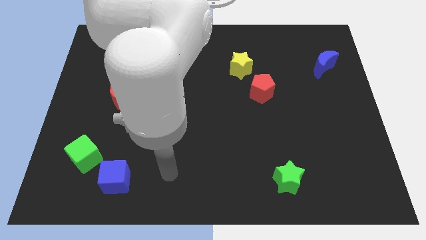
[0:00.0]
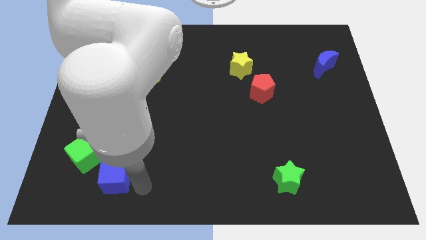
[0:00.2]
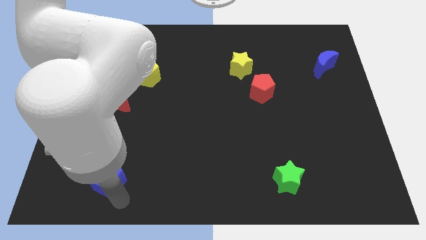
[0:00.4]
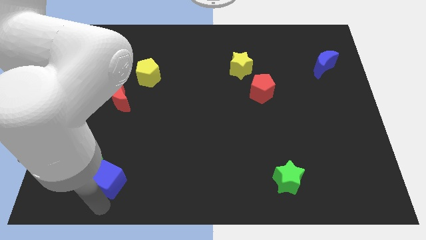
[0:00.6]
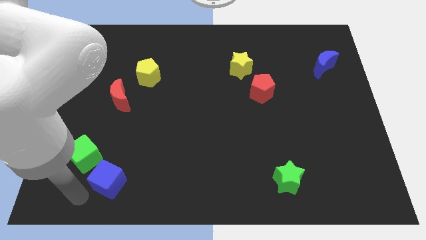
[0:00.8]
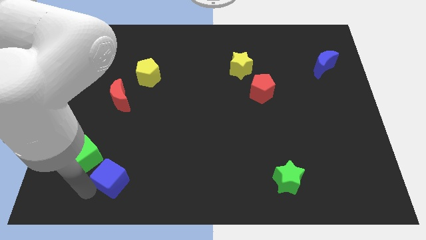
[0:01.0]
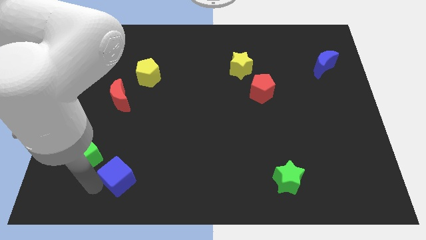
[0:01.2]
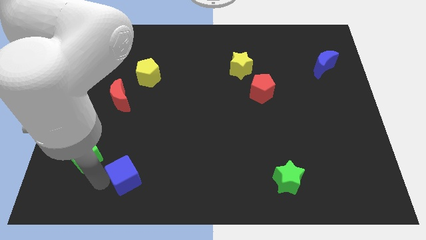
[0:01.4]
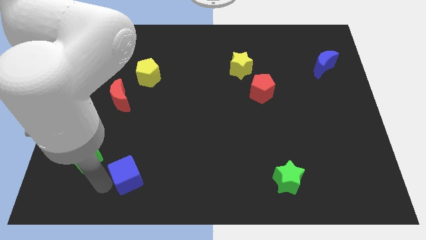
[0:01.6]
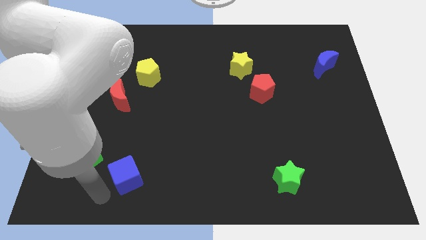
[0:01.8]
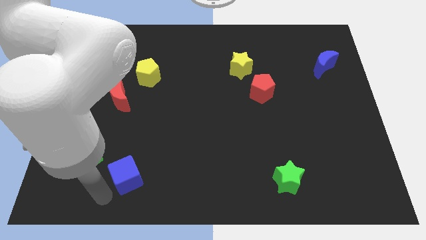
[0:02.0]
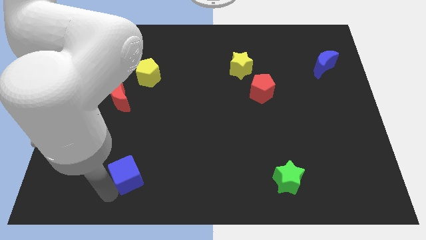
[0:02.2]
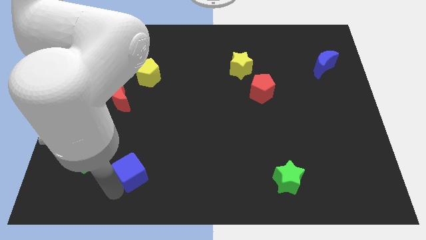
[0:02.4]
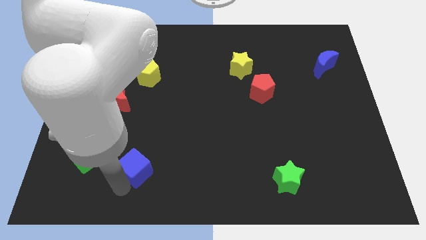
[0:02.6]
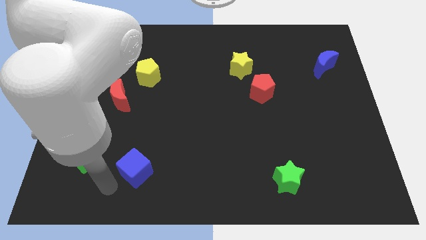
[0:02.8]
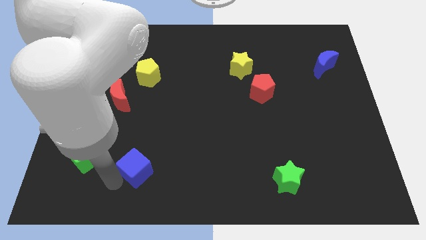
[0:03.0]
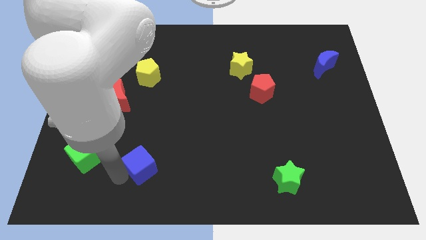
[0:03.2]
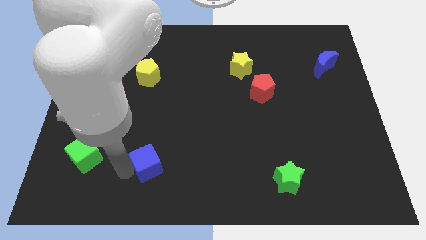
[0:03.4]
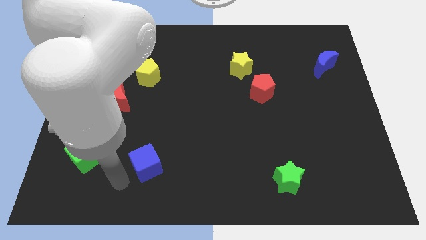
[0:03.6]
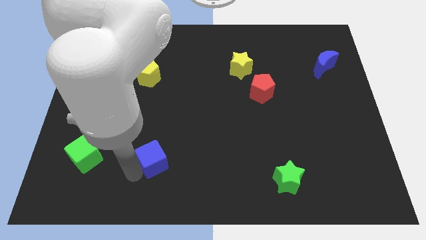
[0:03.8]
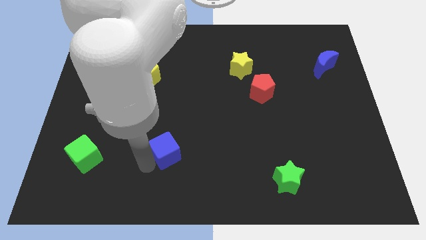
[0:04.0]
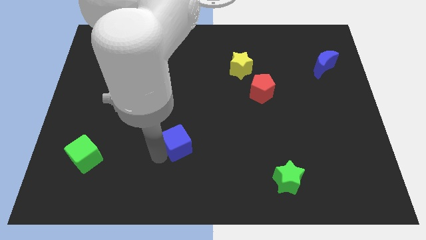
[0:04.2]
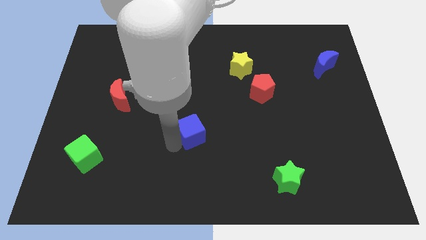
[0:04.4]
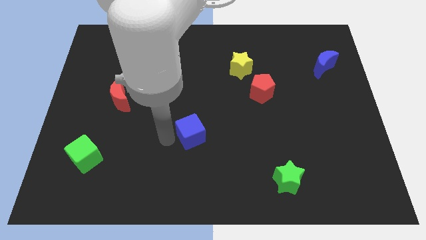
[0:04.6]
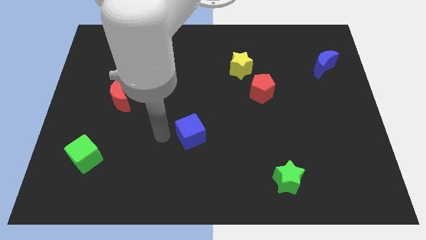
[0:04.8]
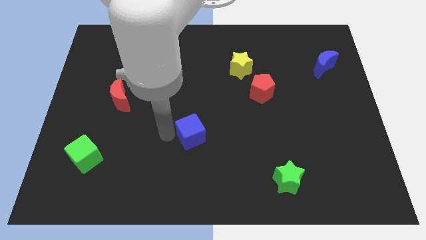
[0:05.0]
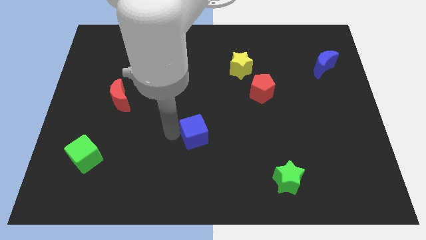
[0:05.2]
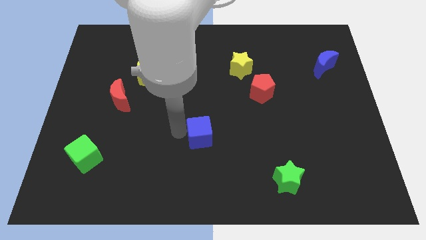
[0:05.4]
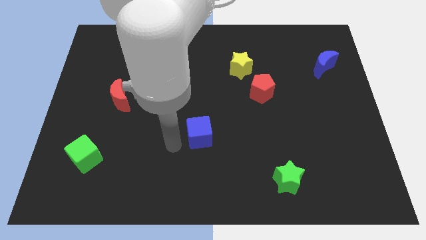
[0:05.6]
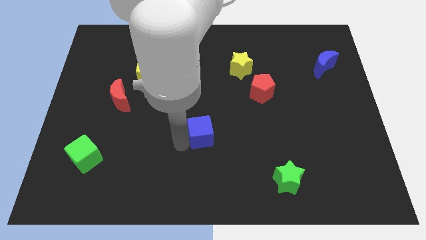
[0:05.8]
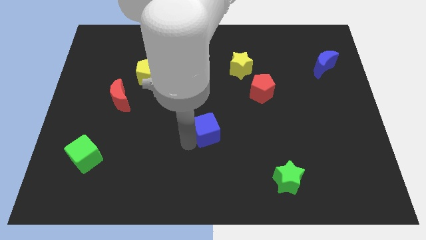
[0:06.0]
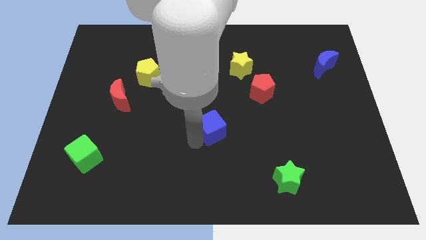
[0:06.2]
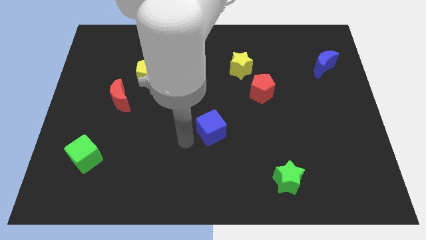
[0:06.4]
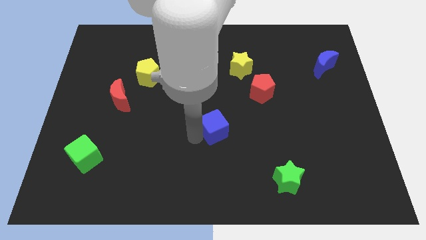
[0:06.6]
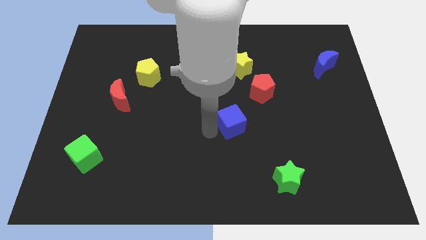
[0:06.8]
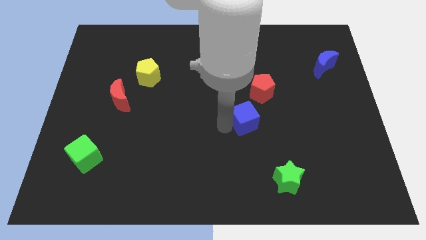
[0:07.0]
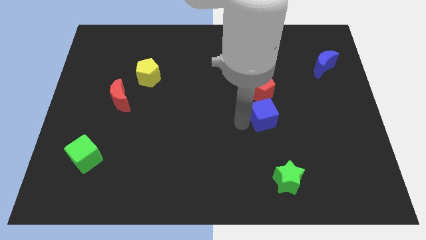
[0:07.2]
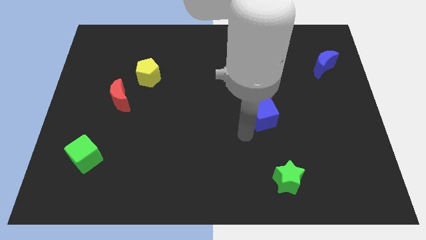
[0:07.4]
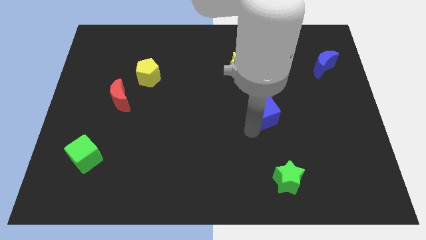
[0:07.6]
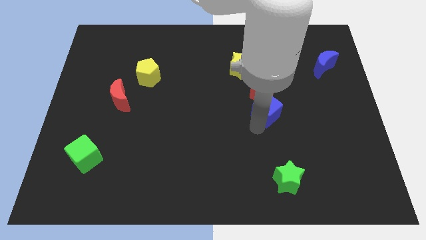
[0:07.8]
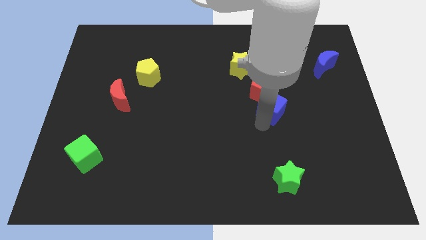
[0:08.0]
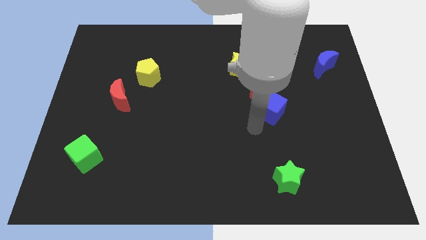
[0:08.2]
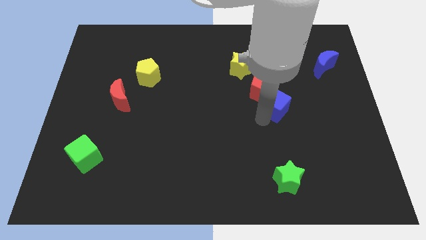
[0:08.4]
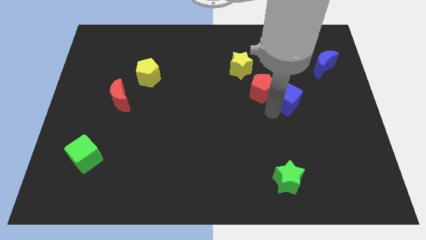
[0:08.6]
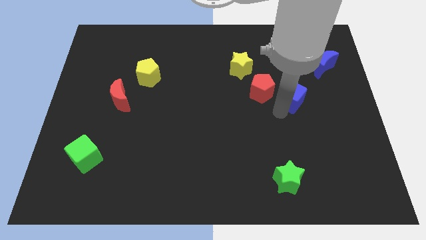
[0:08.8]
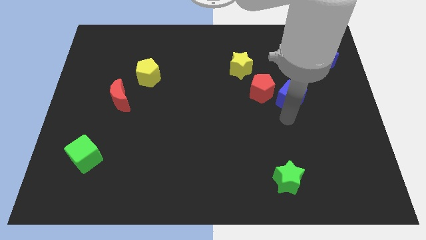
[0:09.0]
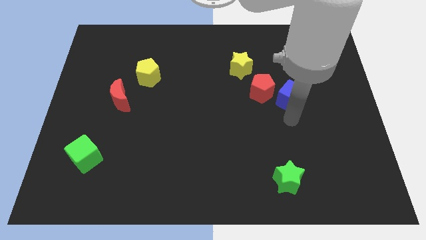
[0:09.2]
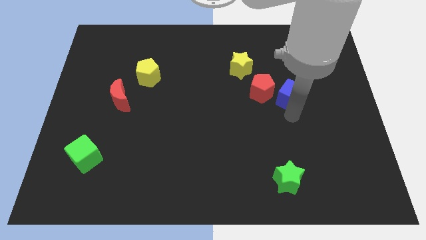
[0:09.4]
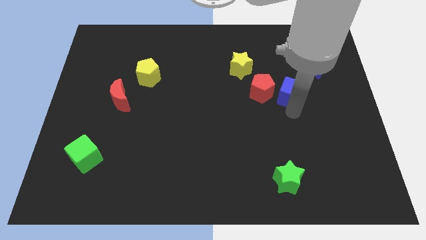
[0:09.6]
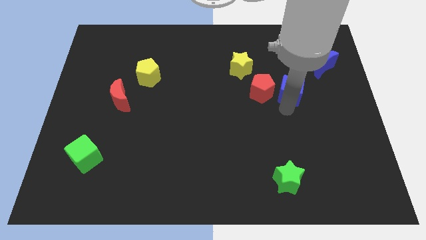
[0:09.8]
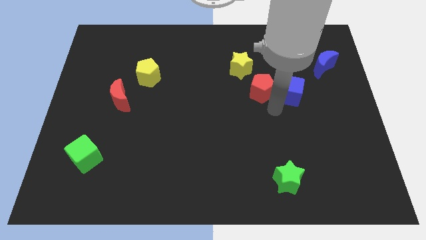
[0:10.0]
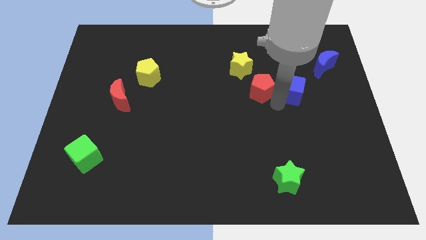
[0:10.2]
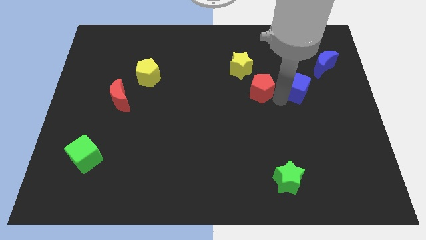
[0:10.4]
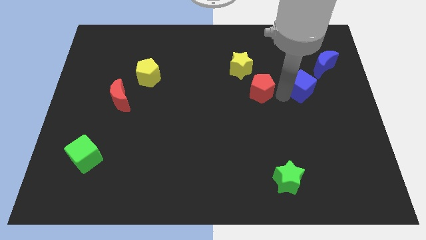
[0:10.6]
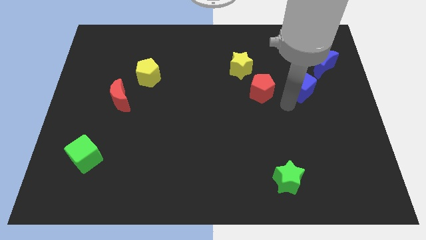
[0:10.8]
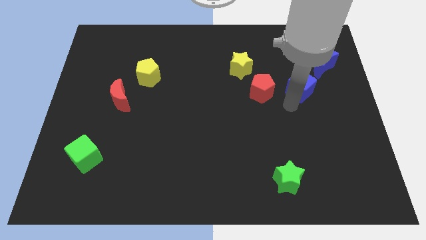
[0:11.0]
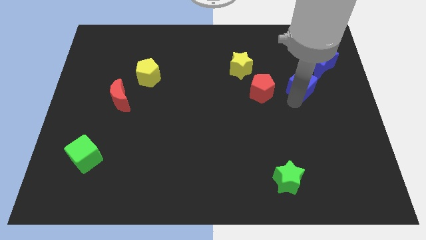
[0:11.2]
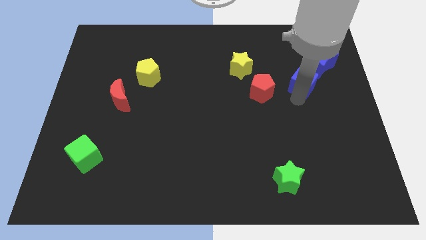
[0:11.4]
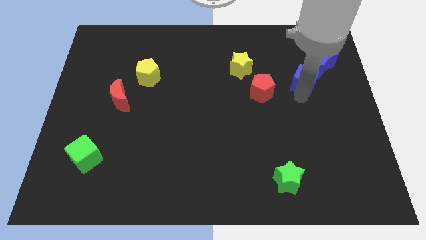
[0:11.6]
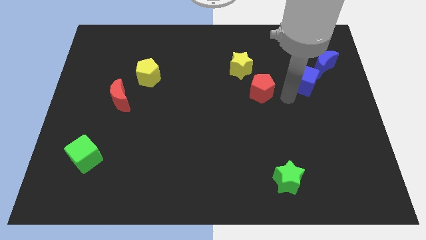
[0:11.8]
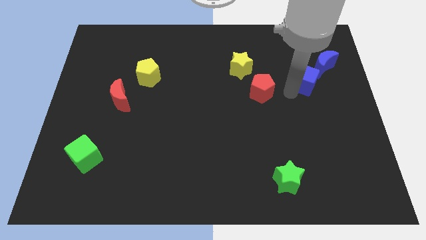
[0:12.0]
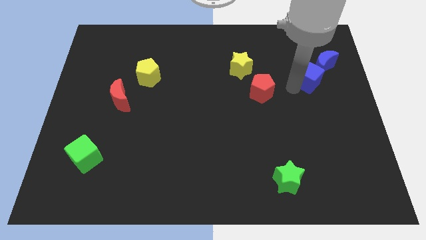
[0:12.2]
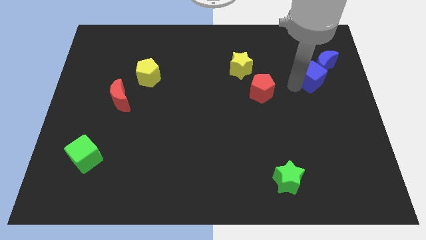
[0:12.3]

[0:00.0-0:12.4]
move the blue cube next to the blue moon

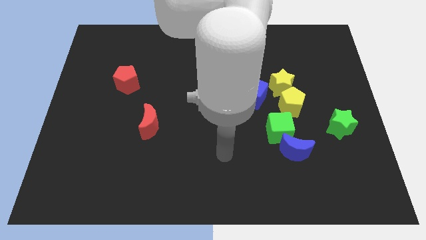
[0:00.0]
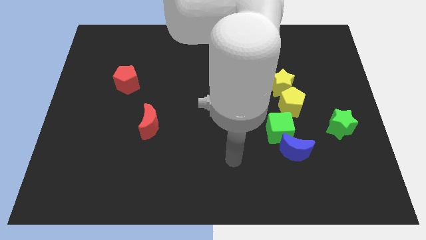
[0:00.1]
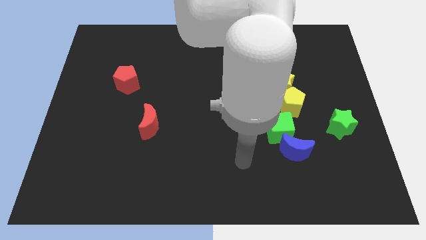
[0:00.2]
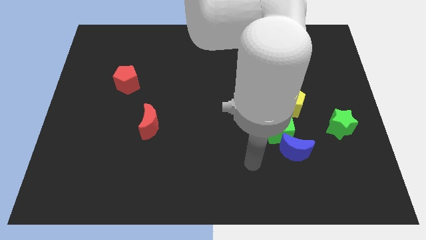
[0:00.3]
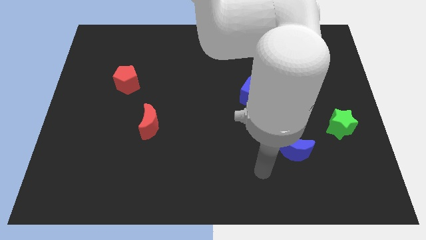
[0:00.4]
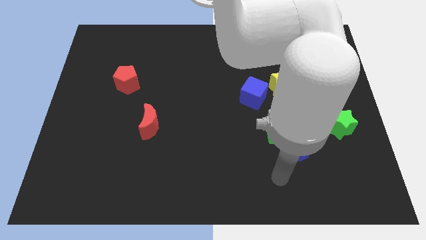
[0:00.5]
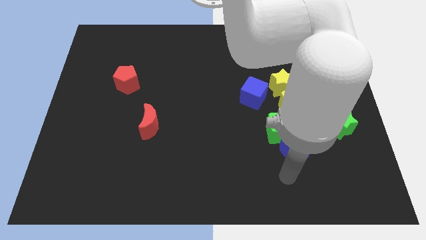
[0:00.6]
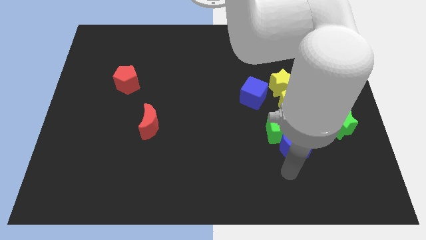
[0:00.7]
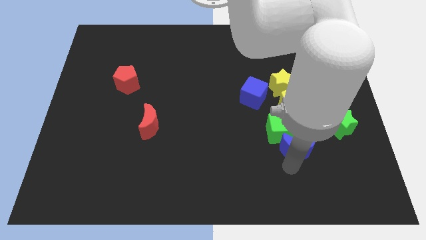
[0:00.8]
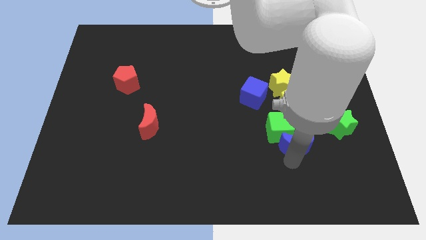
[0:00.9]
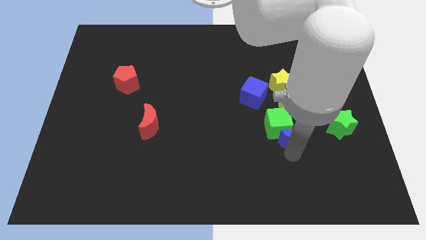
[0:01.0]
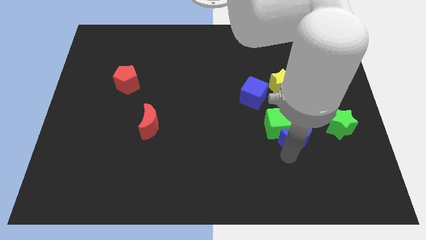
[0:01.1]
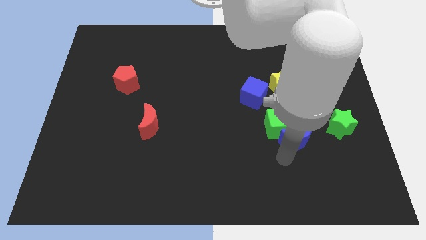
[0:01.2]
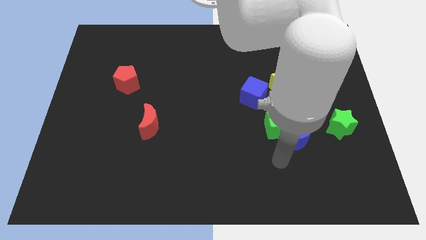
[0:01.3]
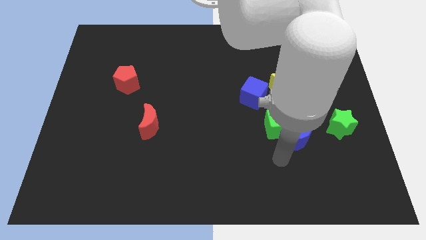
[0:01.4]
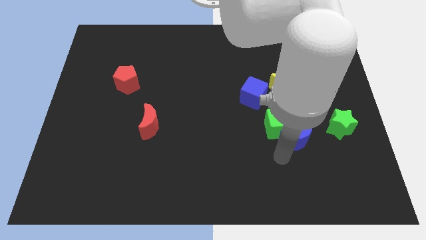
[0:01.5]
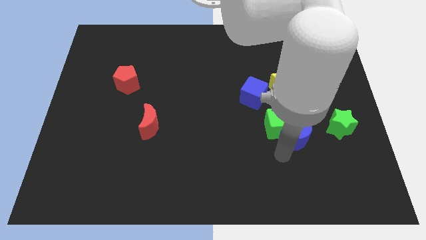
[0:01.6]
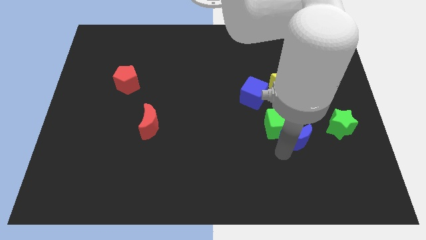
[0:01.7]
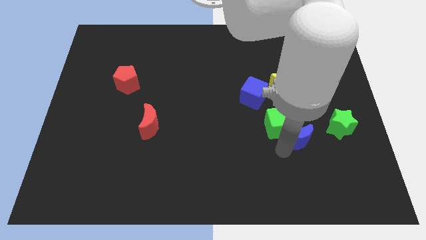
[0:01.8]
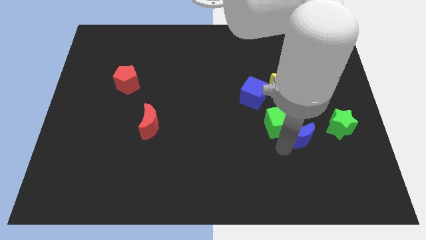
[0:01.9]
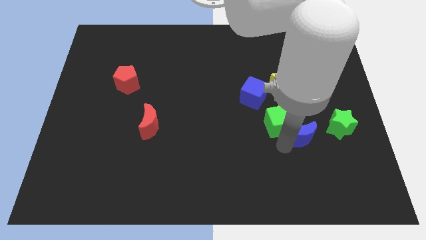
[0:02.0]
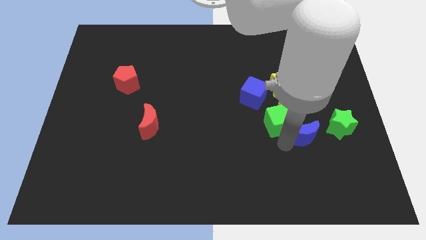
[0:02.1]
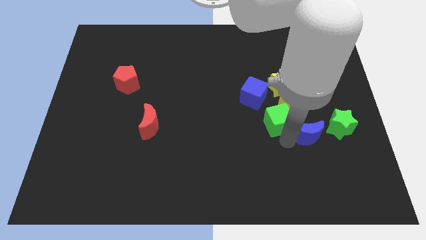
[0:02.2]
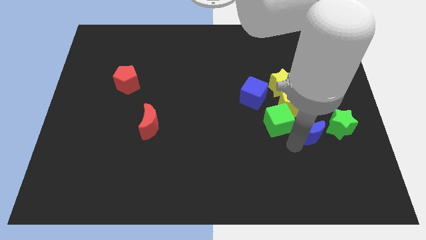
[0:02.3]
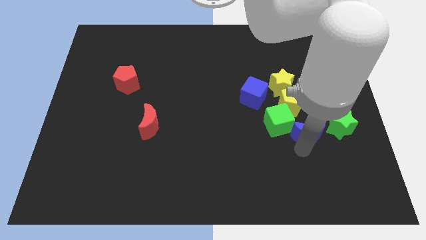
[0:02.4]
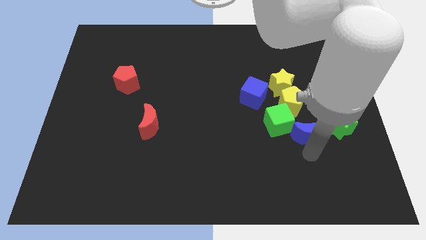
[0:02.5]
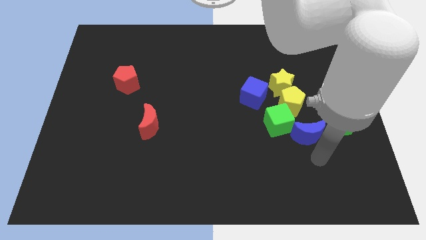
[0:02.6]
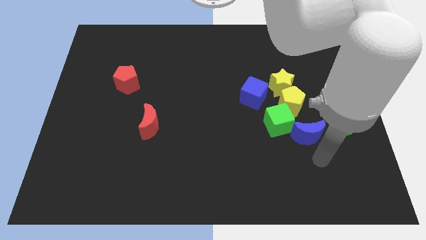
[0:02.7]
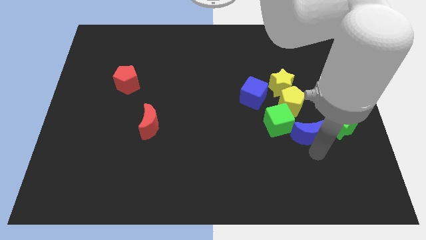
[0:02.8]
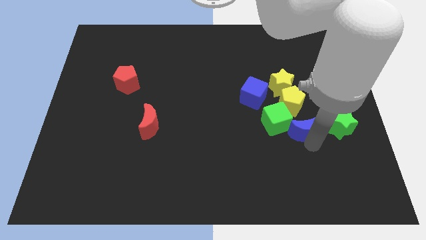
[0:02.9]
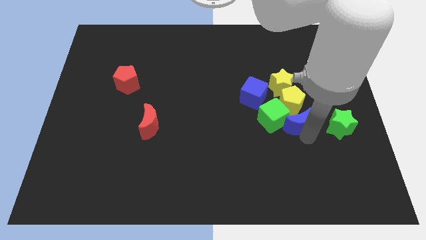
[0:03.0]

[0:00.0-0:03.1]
move the blue moon next to the yellow pentagon
